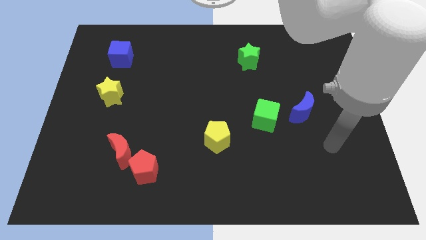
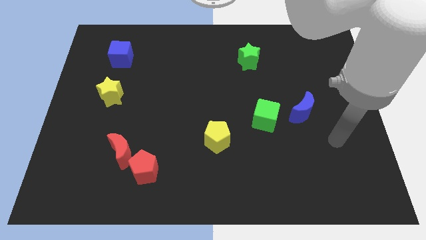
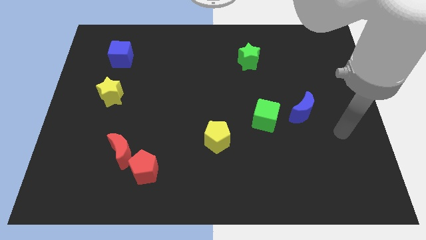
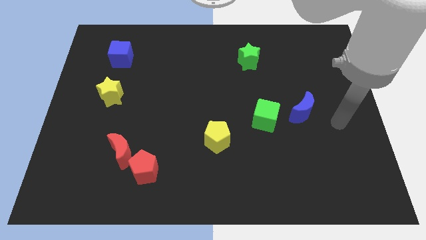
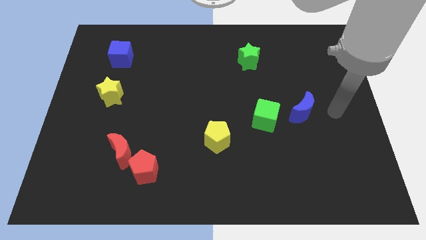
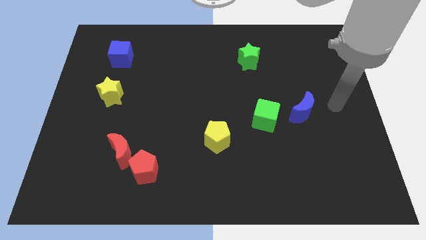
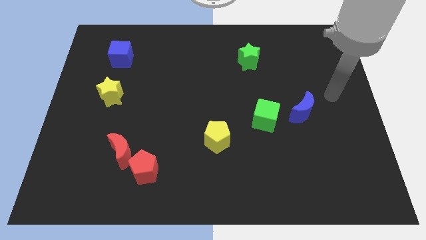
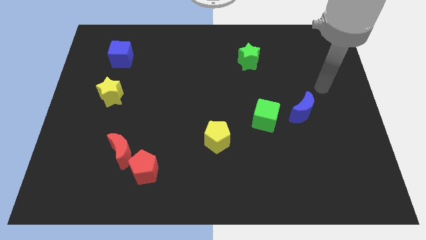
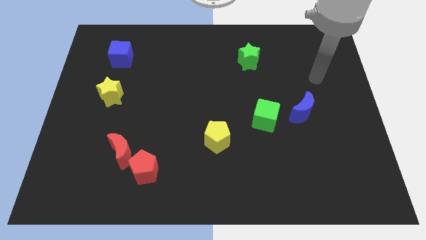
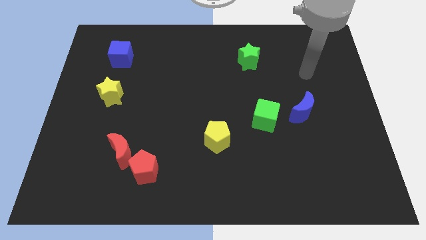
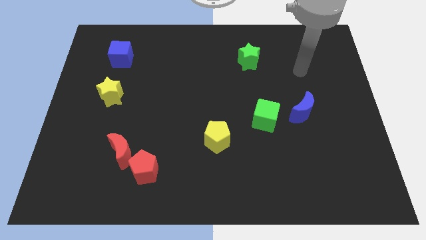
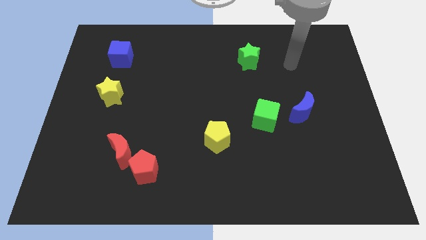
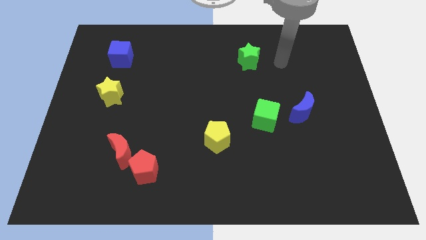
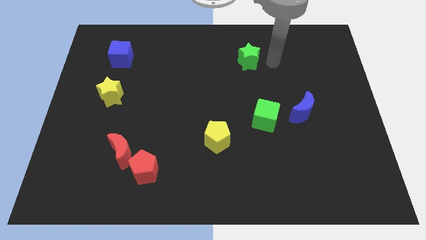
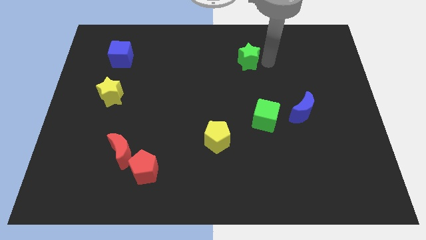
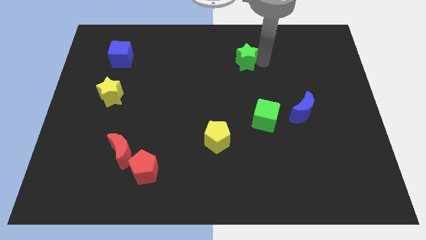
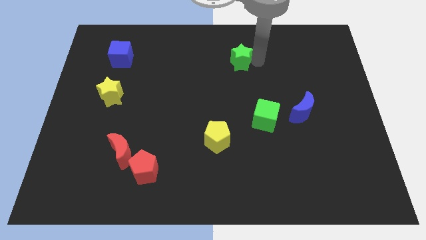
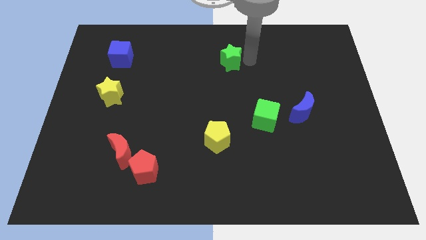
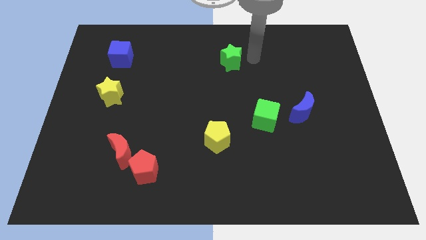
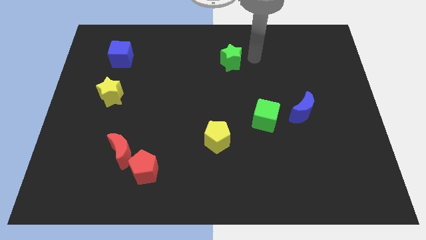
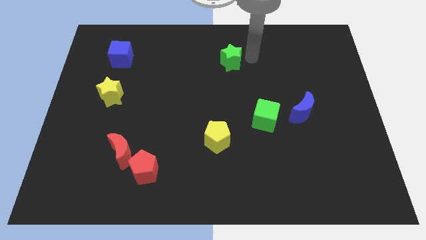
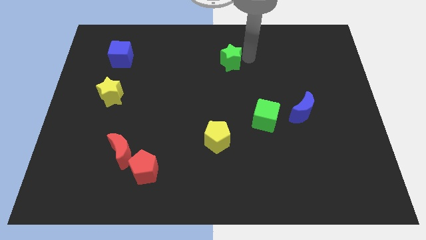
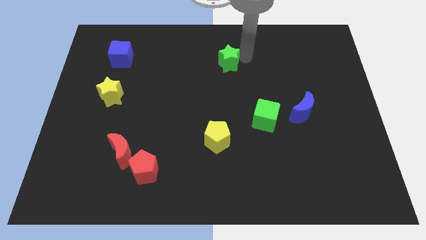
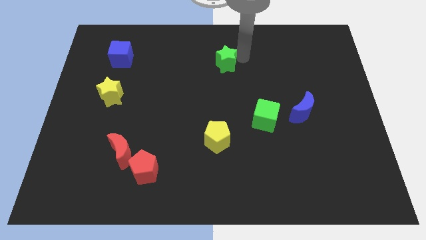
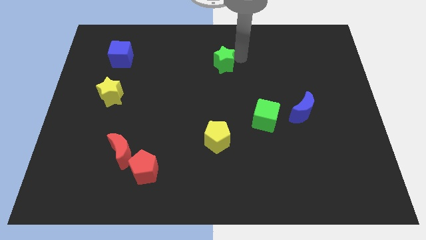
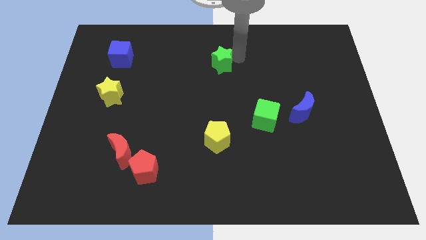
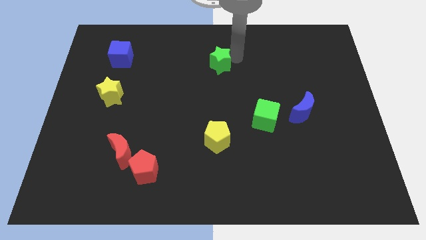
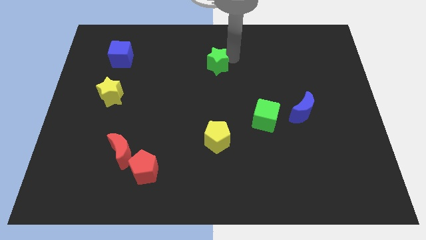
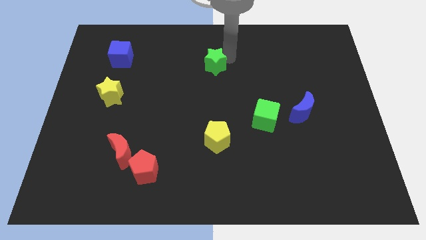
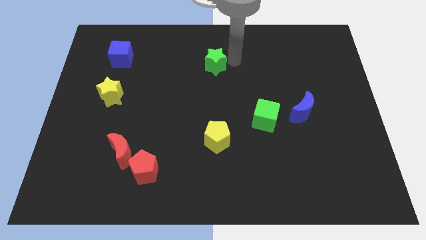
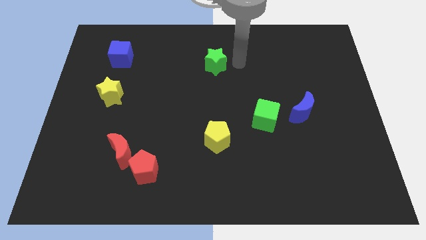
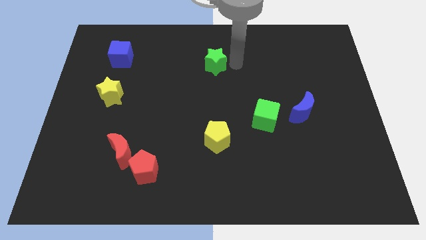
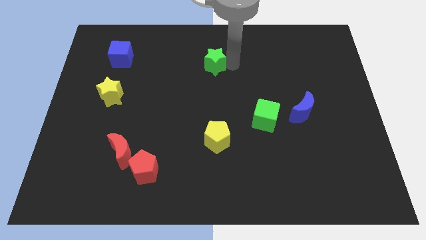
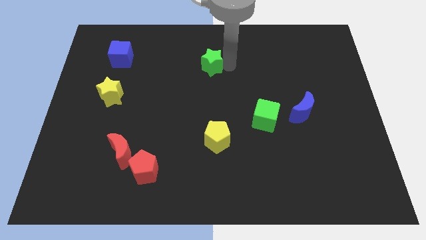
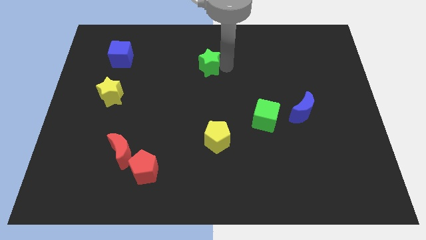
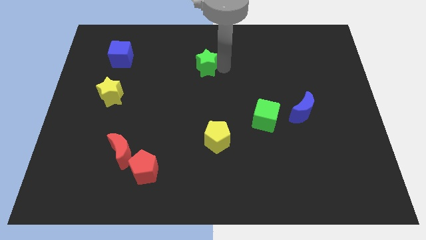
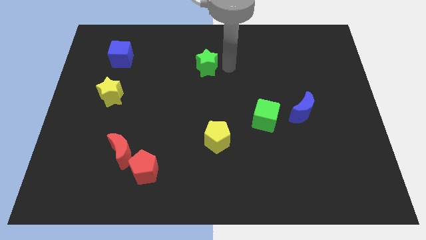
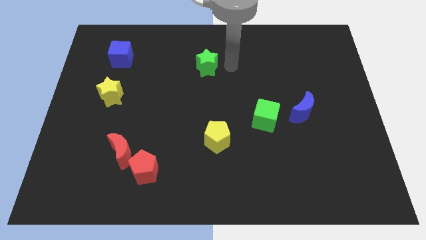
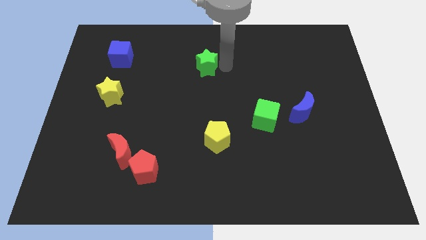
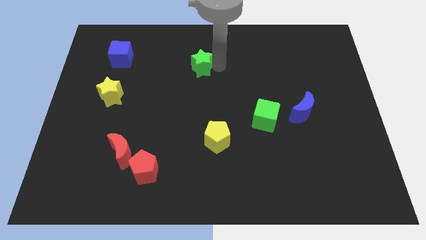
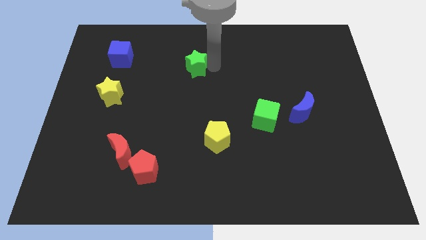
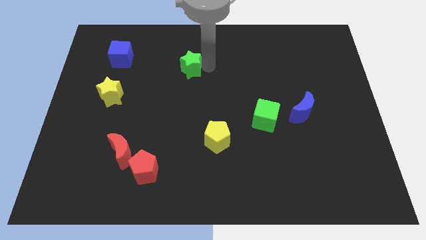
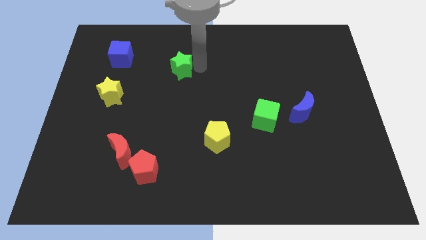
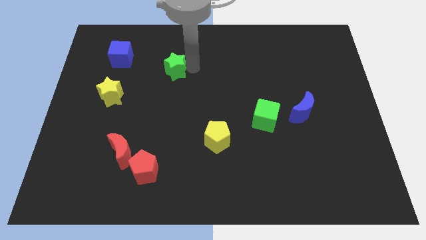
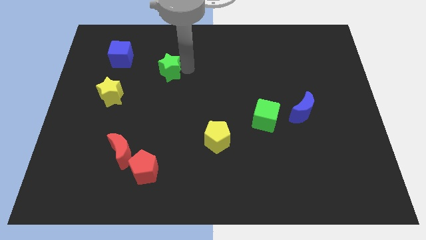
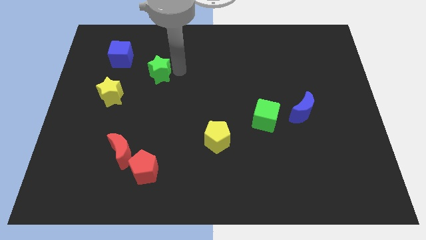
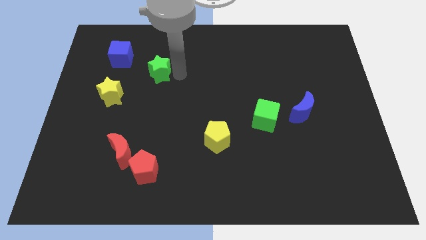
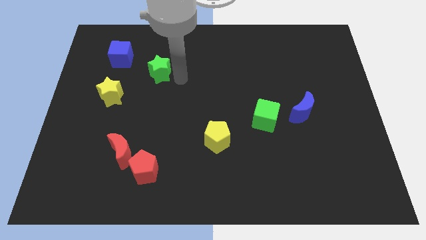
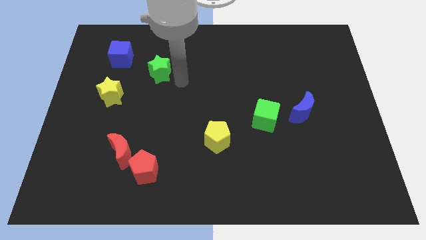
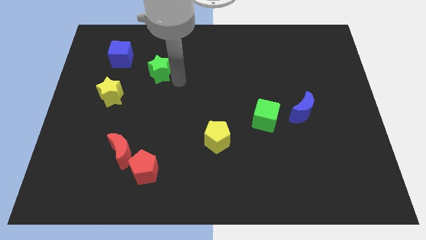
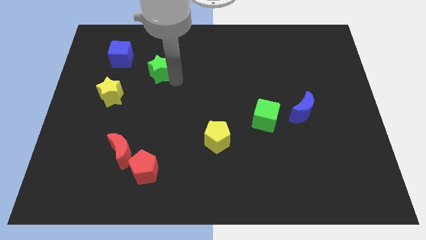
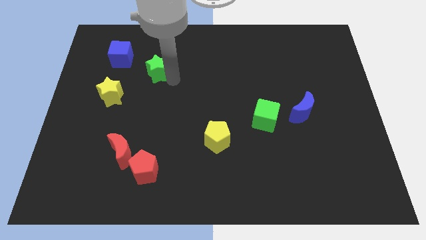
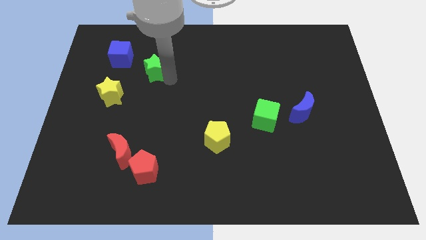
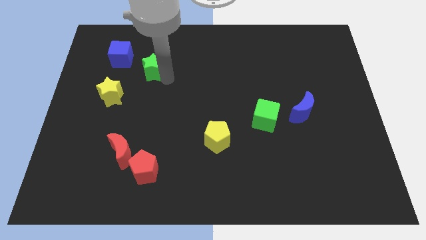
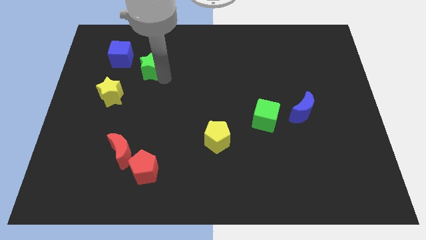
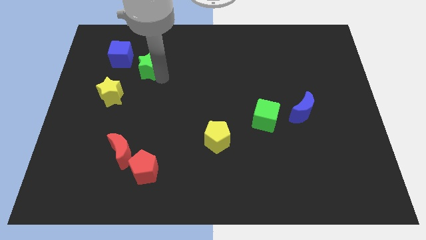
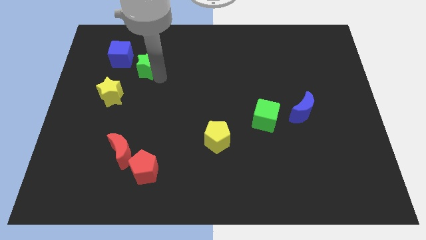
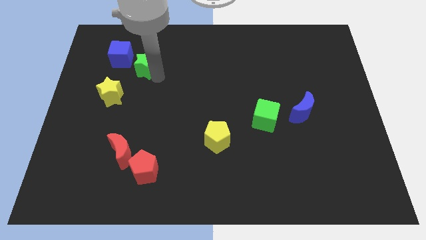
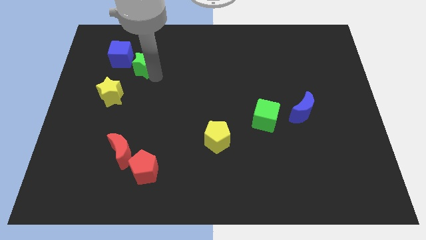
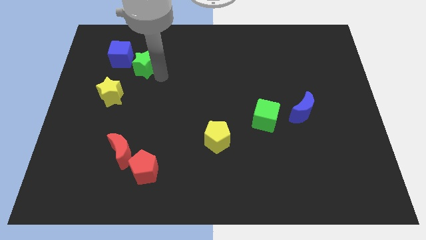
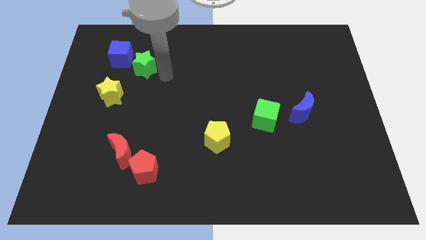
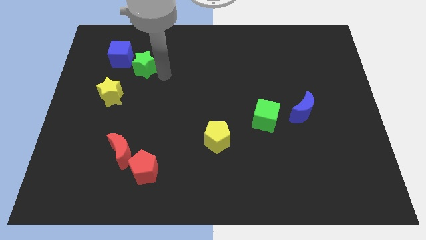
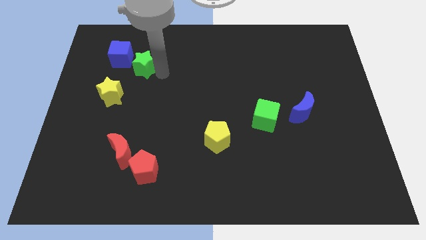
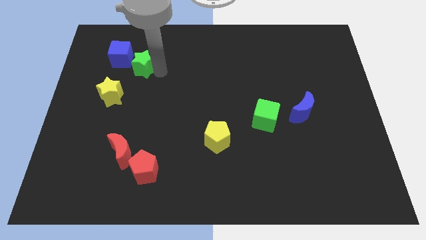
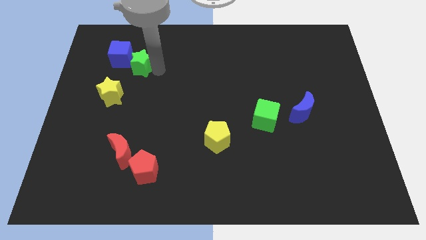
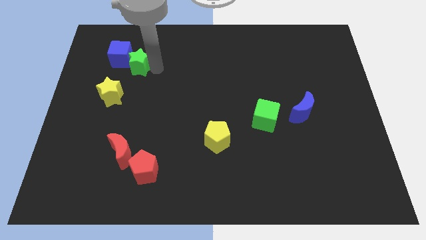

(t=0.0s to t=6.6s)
slide the green star towards the blue cube

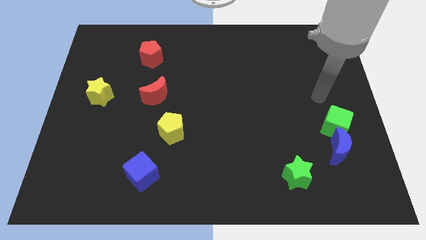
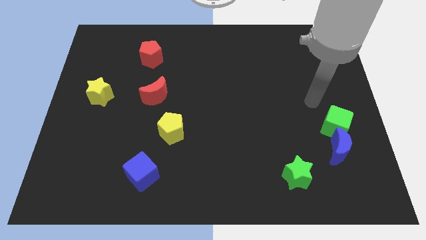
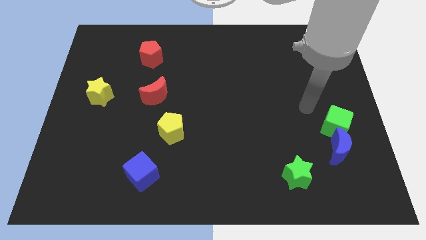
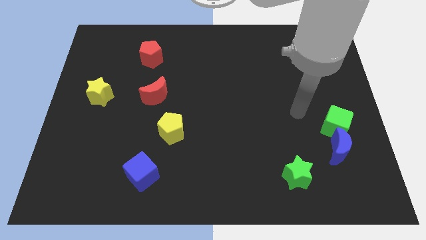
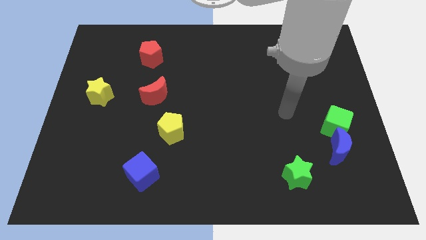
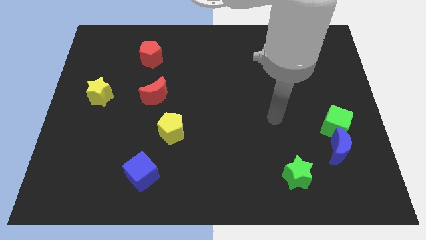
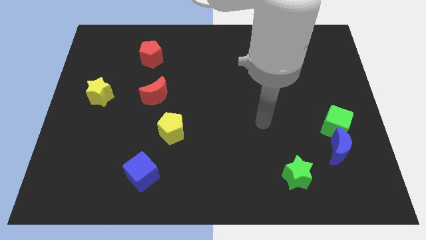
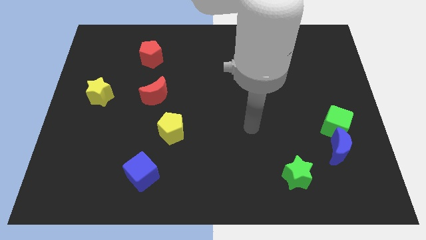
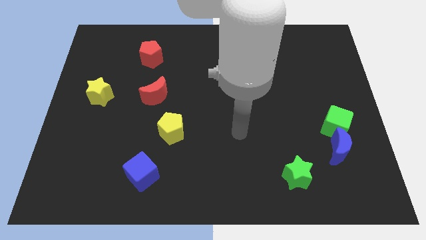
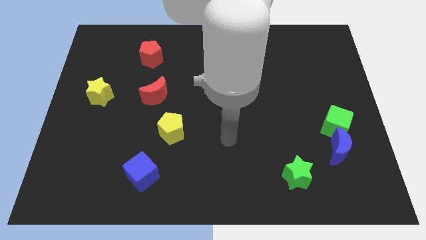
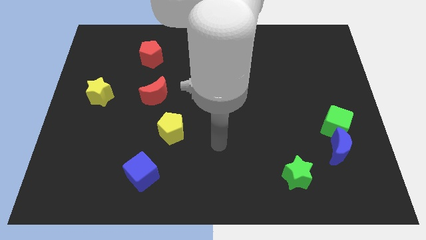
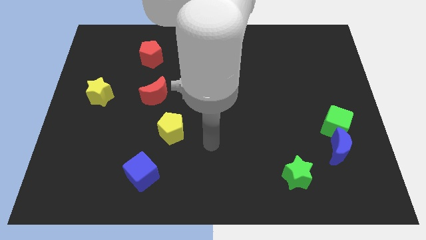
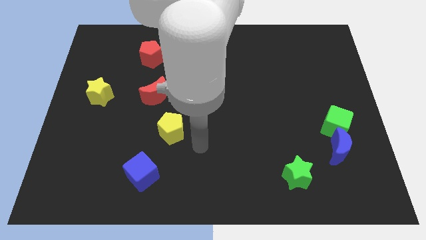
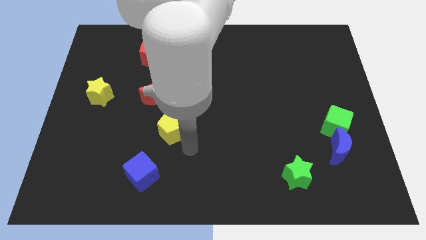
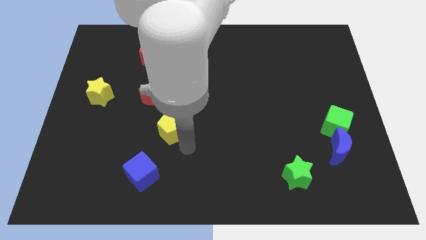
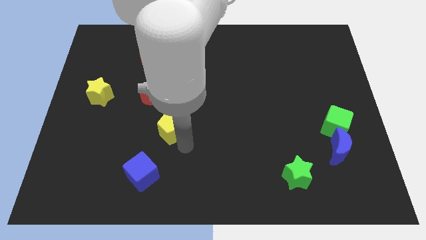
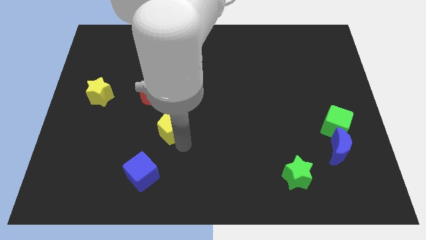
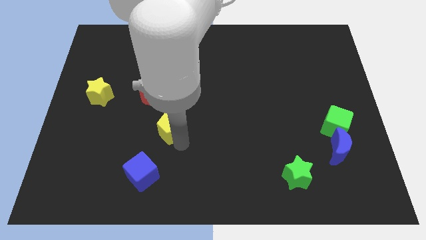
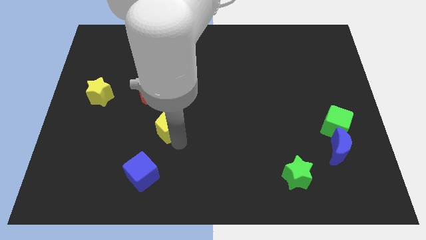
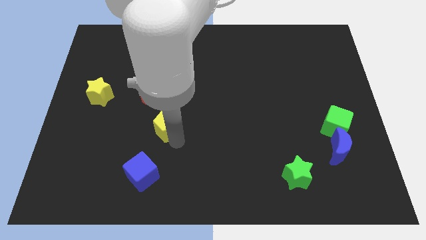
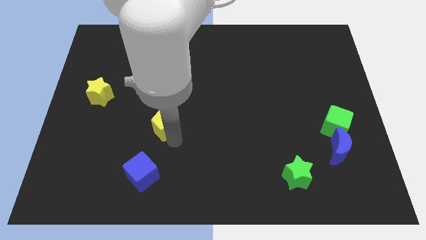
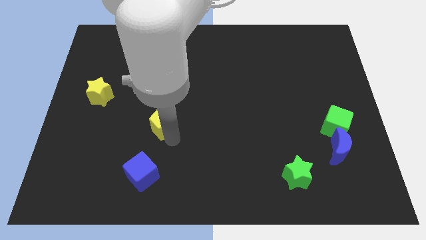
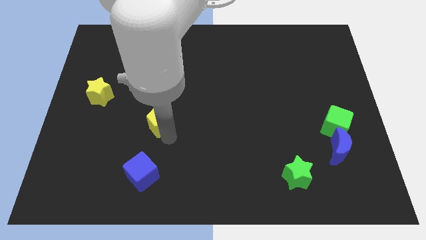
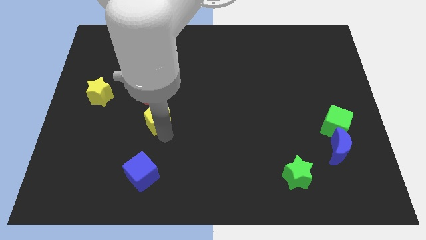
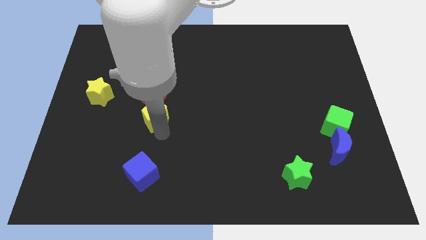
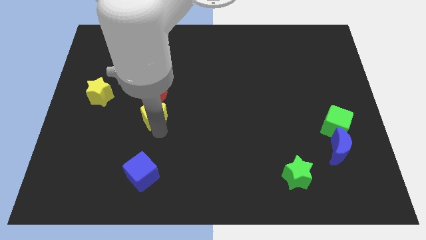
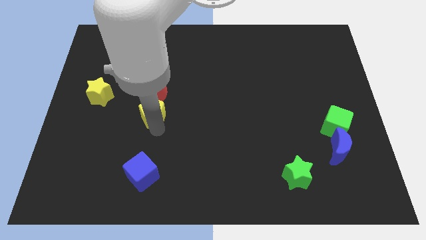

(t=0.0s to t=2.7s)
move the yellow pentagon next to the red moon
